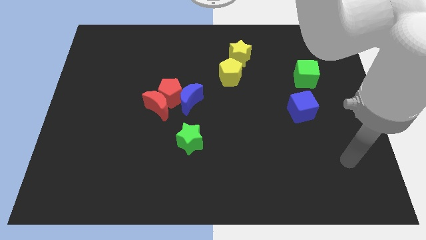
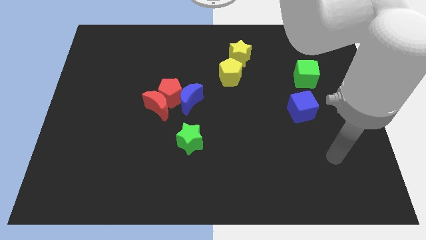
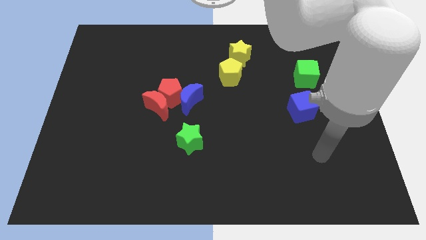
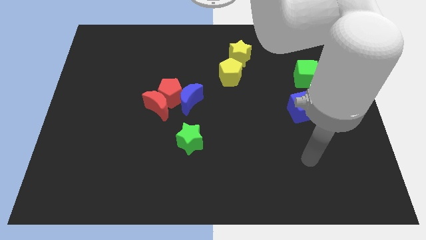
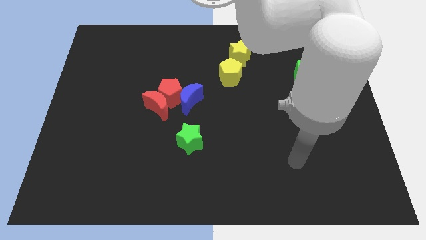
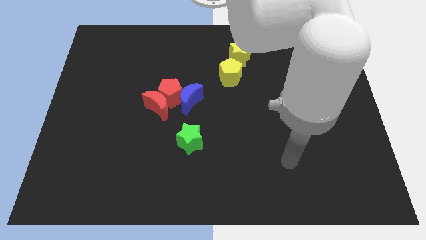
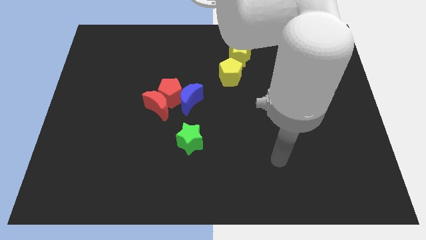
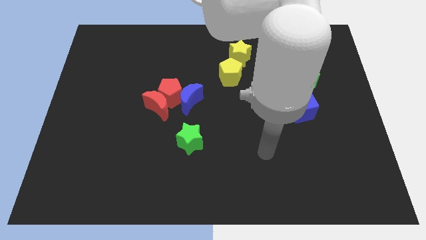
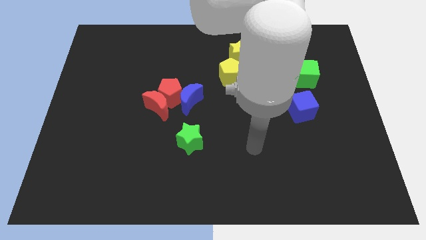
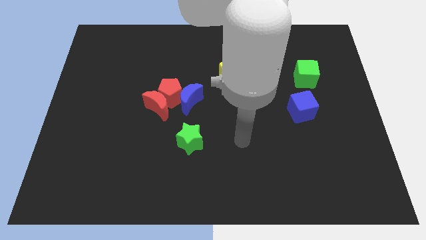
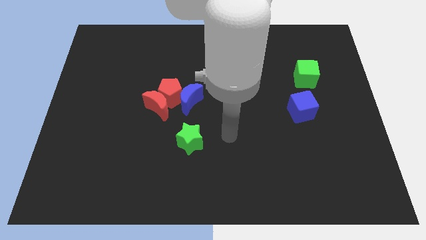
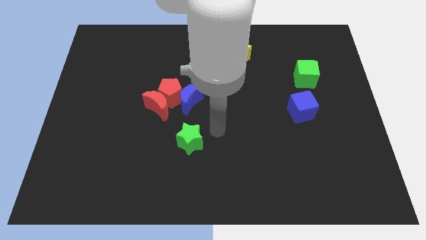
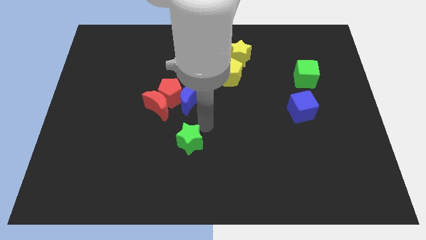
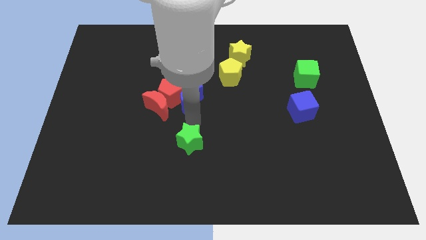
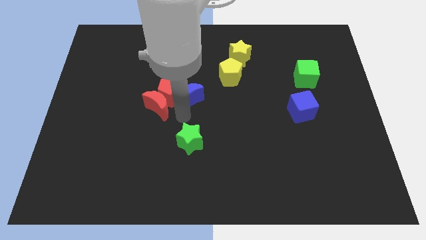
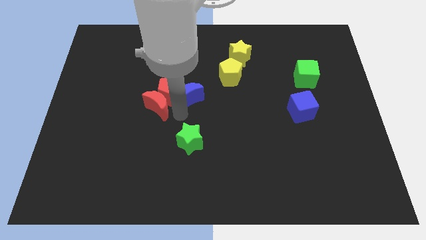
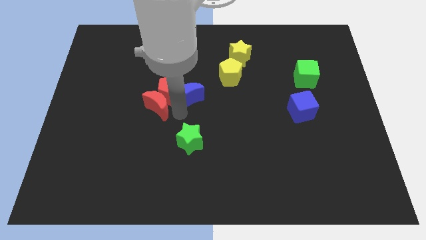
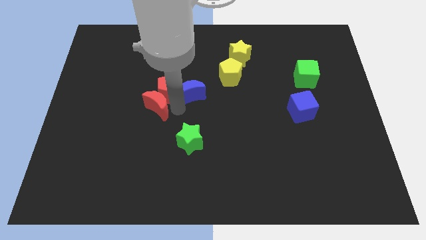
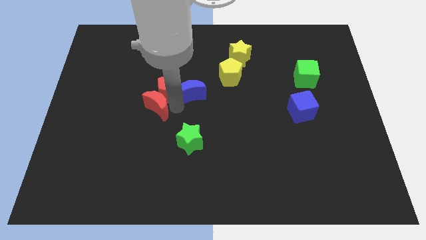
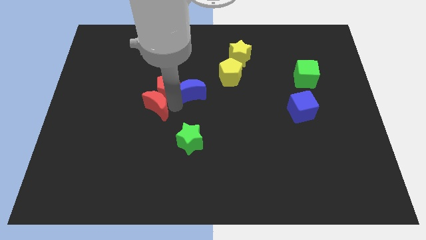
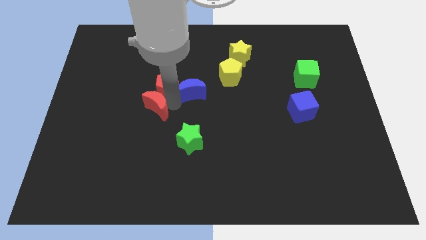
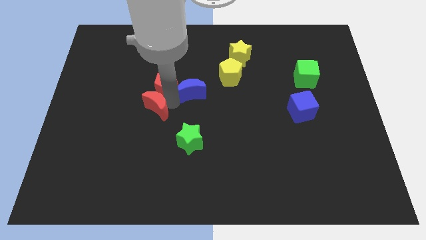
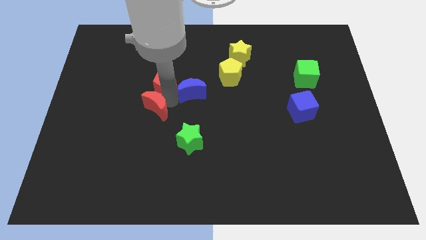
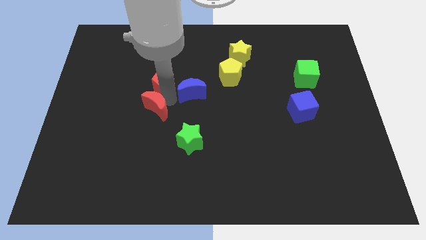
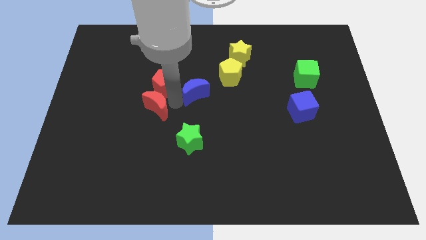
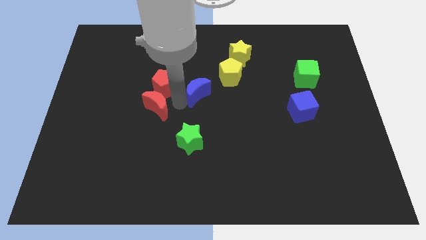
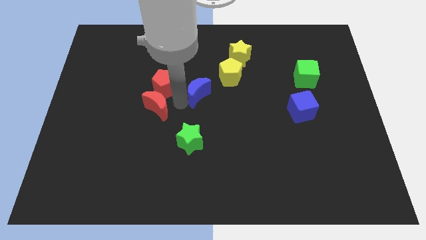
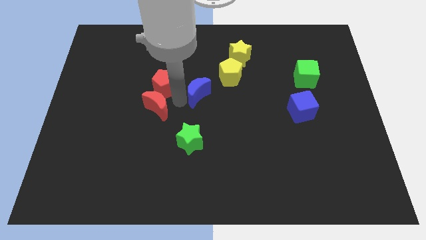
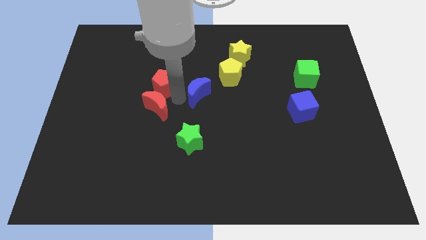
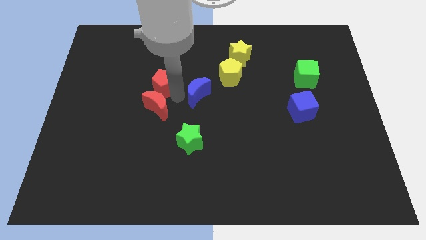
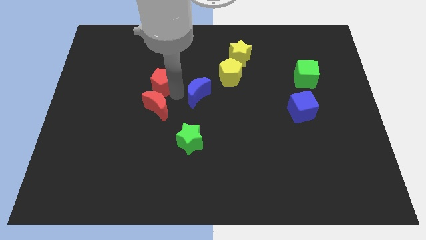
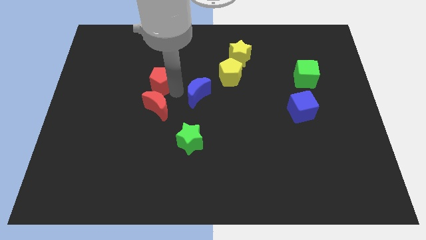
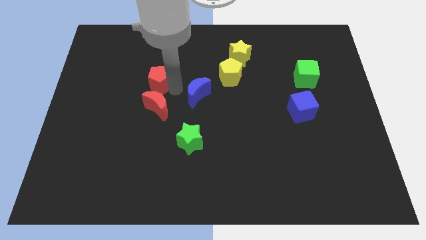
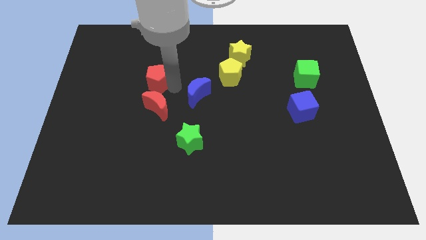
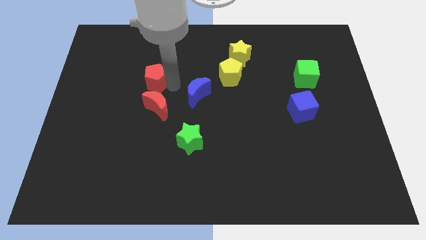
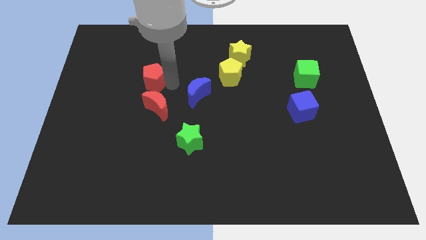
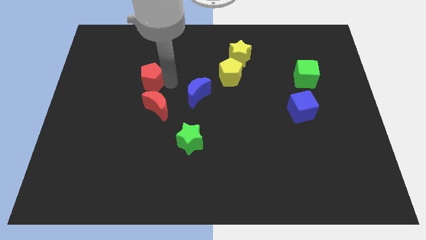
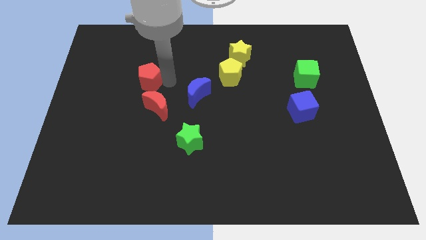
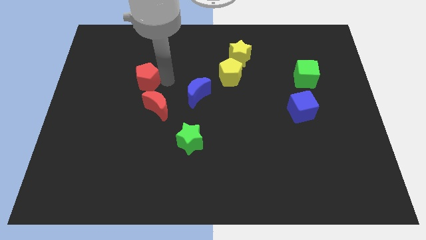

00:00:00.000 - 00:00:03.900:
move the red pentagon away from the red moon and blue moon

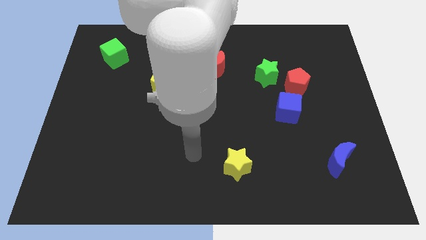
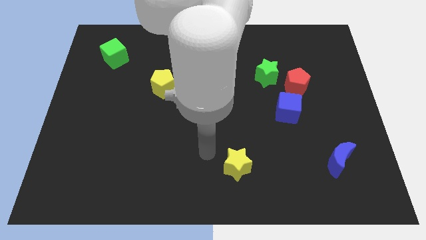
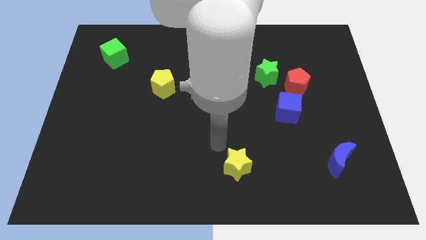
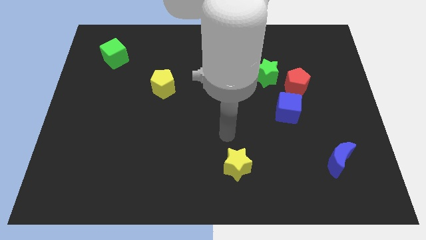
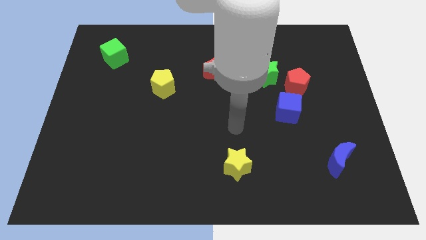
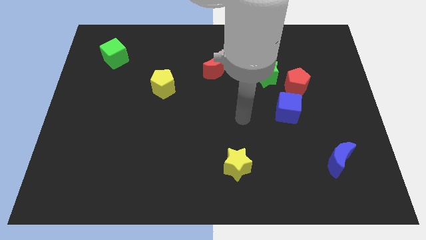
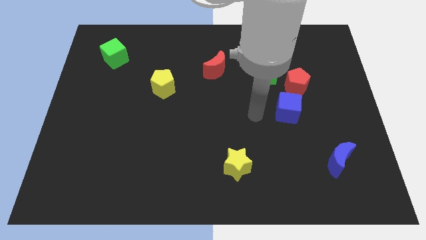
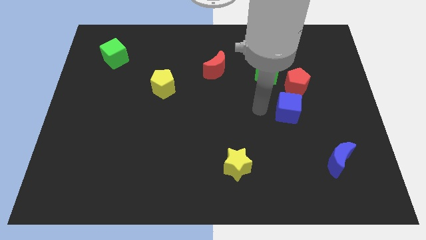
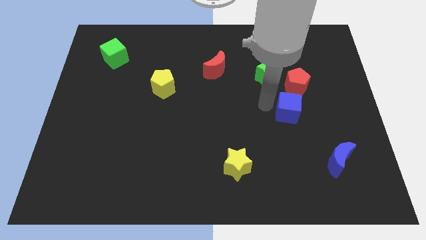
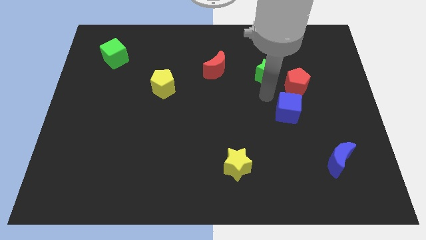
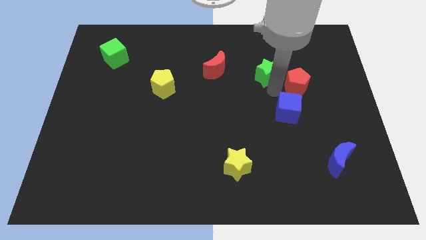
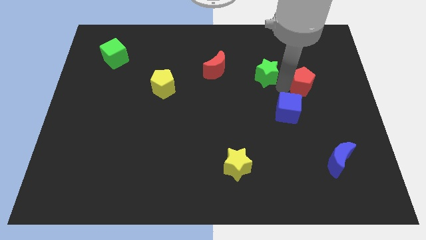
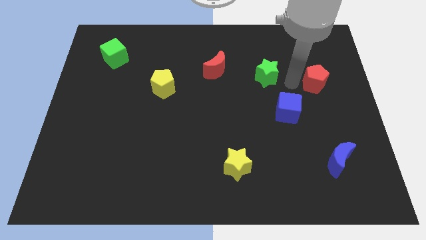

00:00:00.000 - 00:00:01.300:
move the green star away from the red pentagon

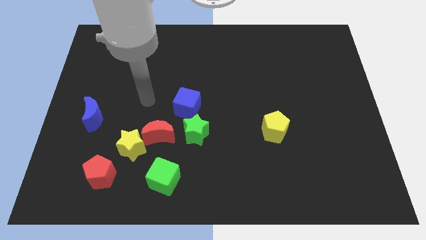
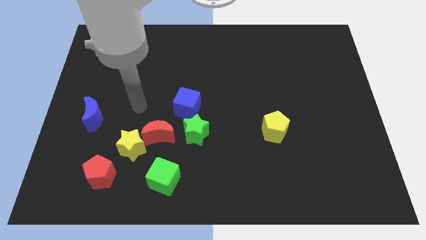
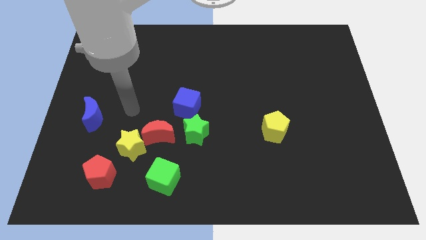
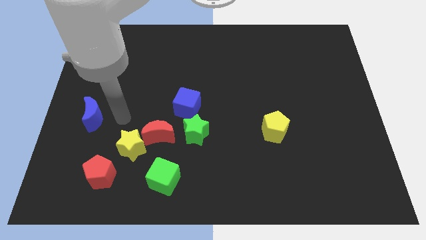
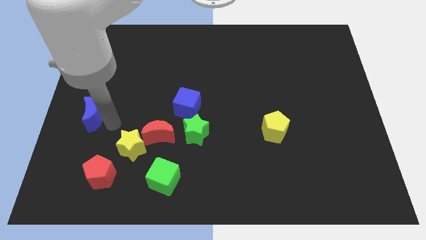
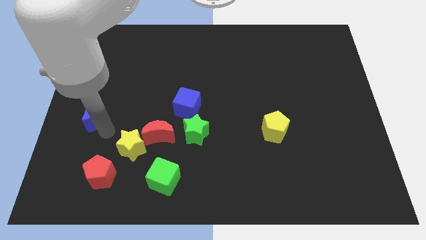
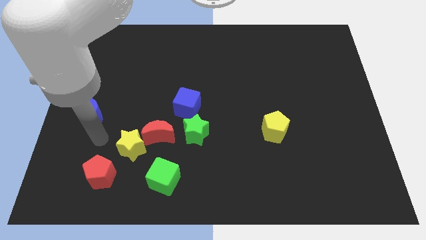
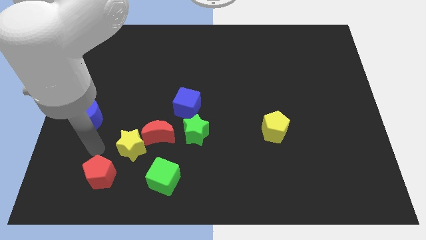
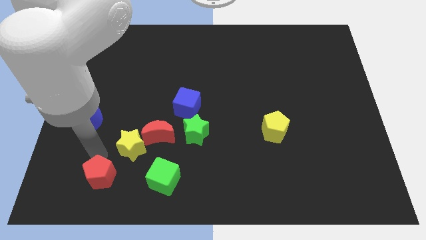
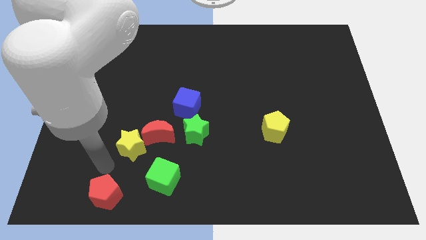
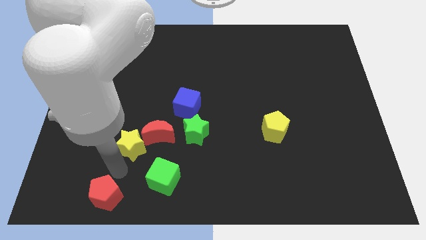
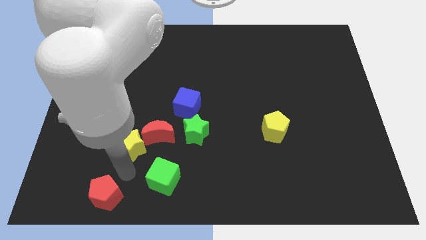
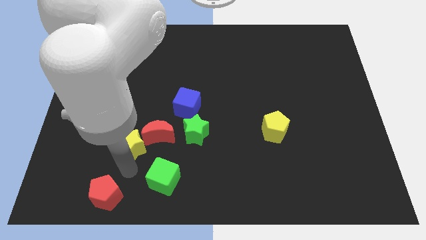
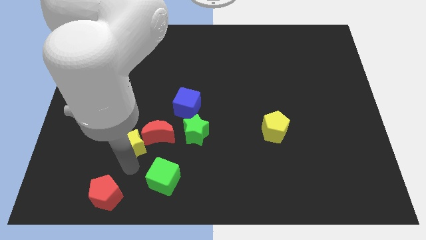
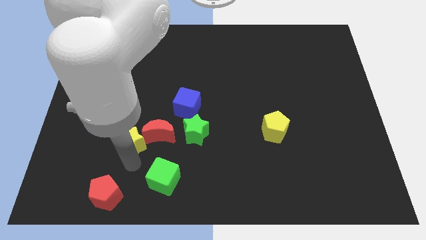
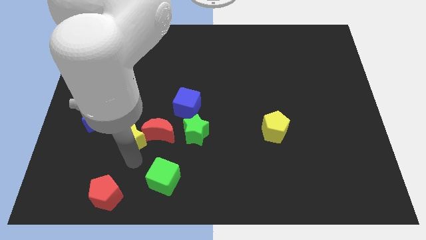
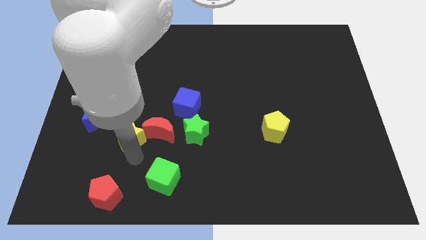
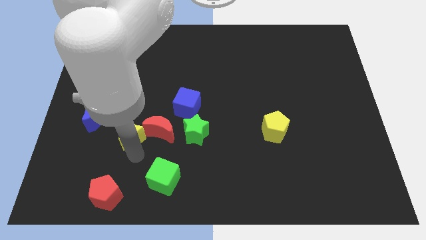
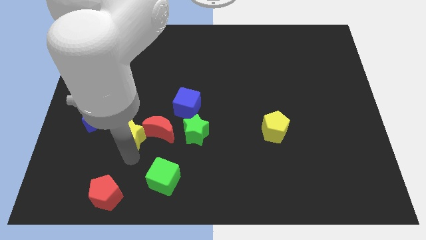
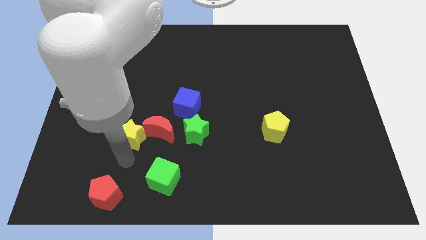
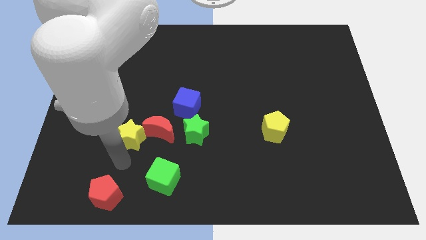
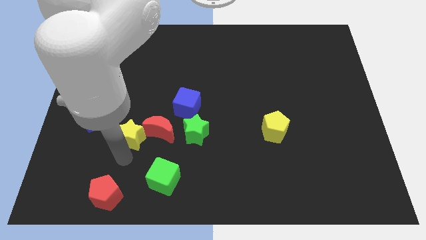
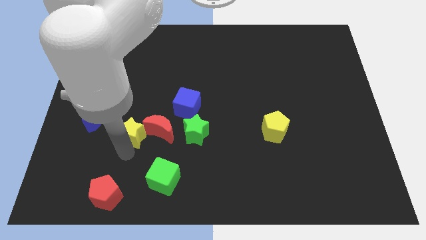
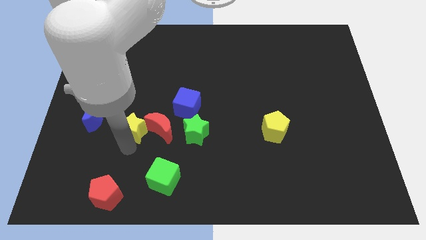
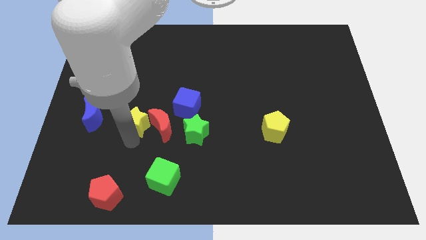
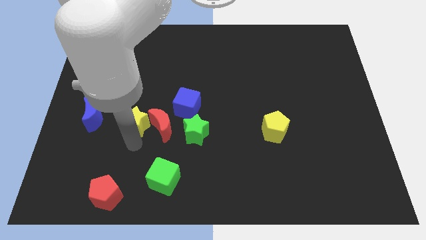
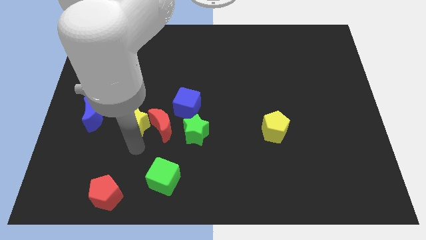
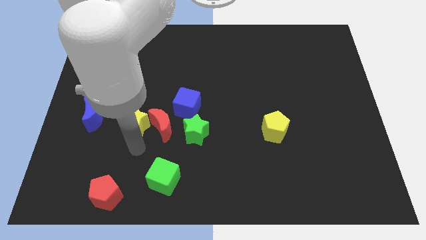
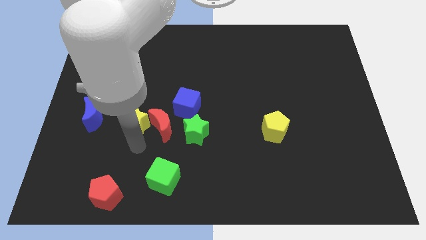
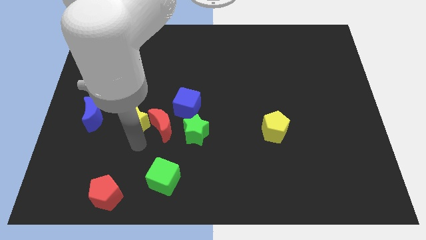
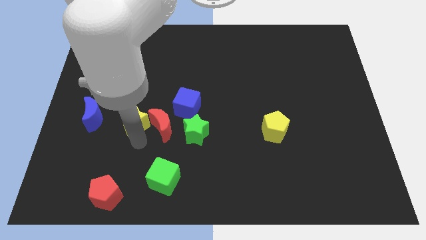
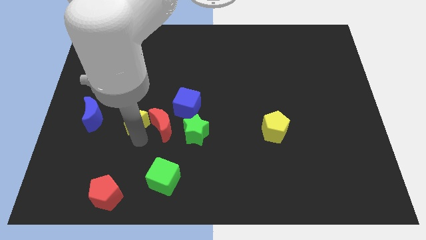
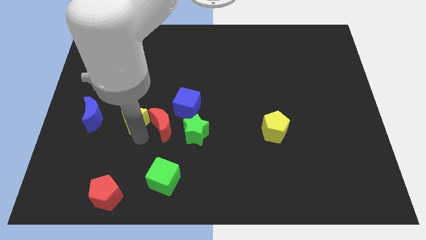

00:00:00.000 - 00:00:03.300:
move the yellow star away from the red moon and red pentagon

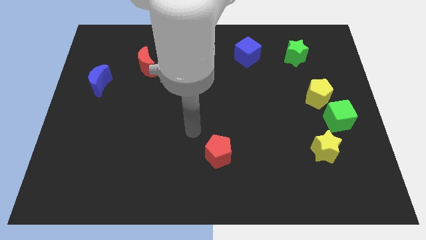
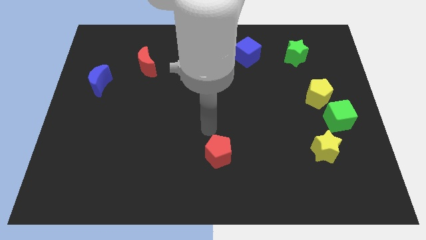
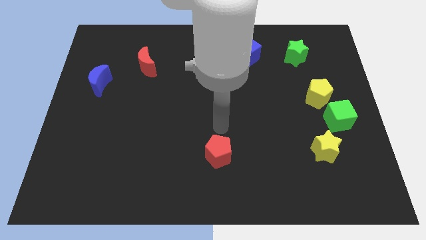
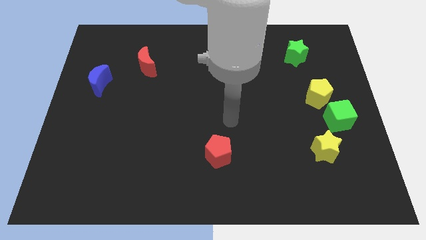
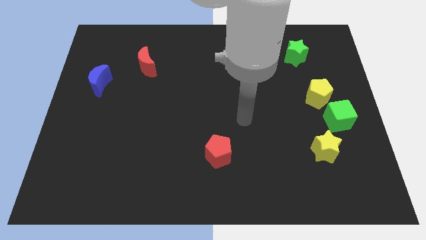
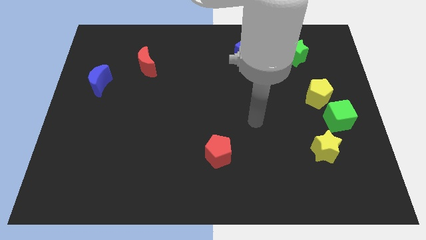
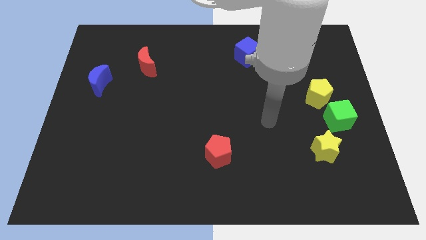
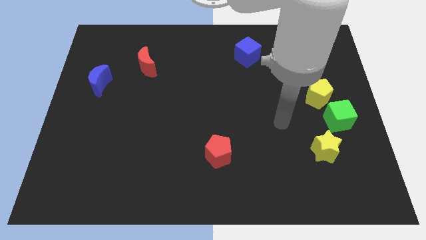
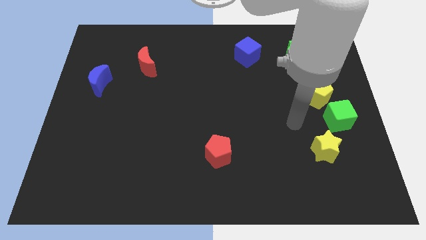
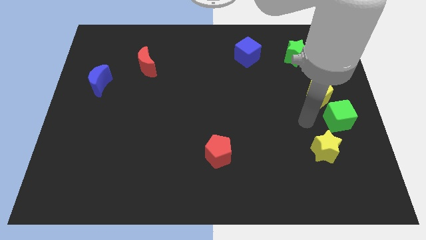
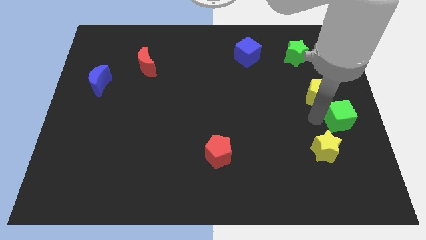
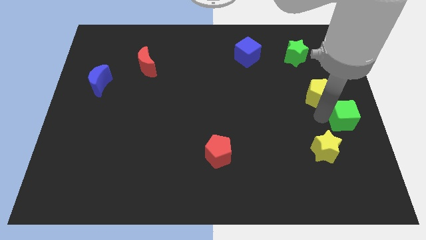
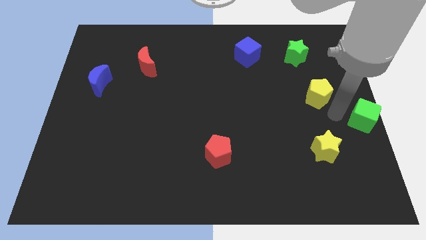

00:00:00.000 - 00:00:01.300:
move the yellow pentagon away from the green cube
